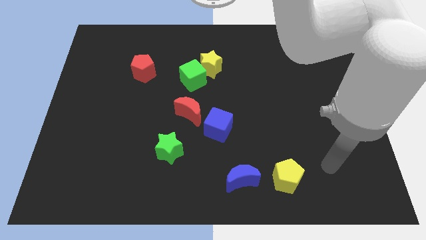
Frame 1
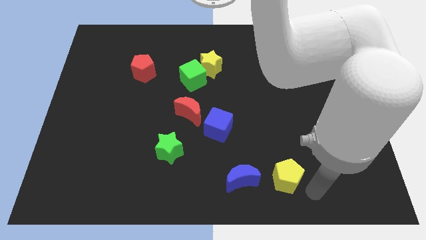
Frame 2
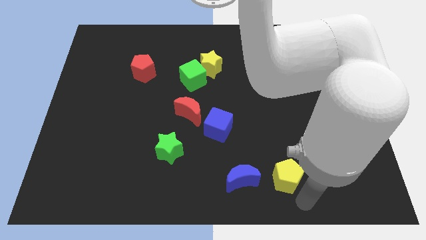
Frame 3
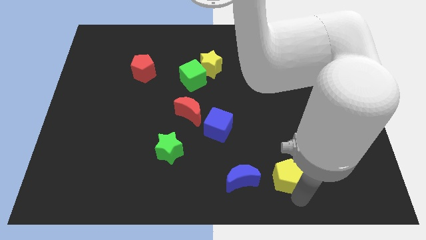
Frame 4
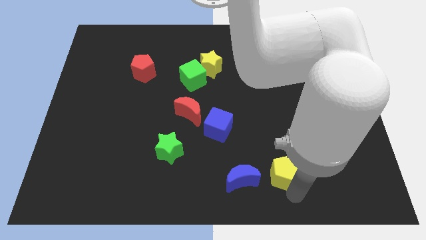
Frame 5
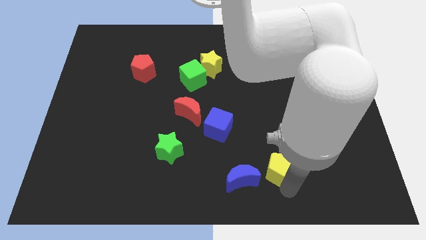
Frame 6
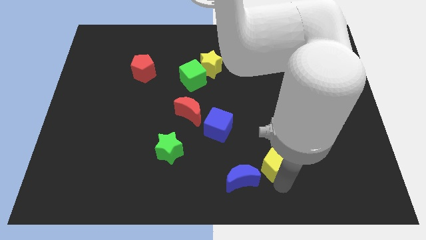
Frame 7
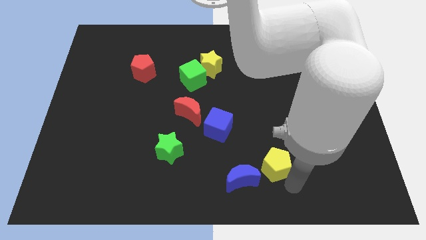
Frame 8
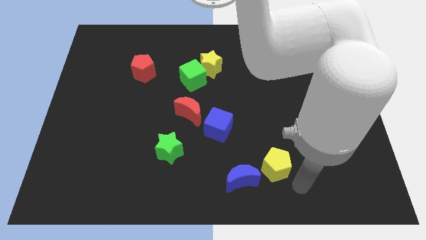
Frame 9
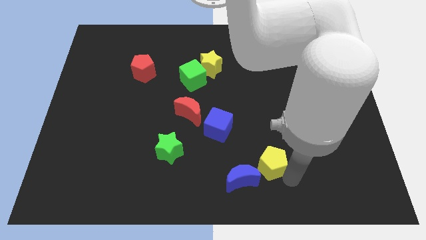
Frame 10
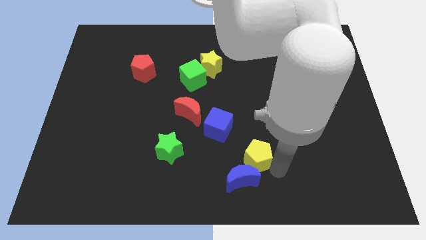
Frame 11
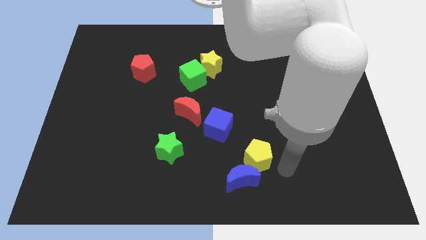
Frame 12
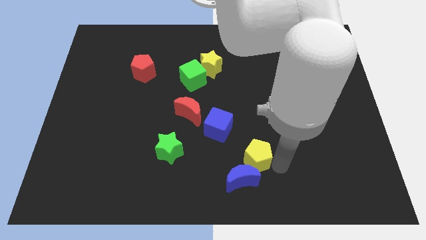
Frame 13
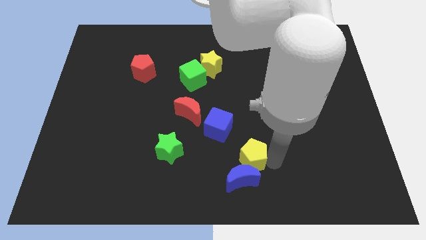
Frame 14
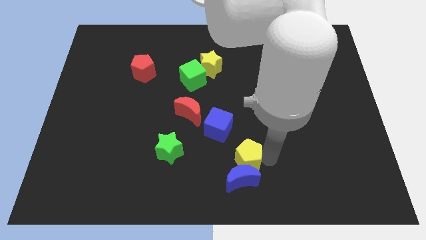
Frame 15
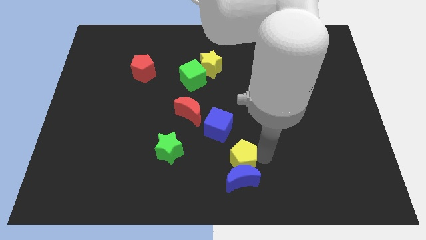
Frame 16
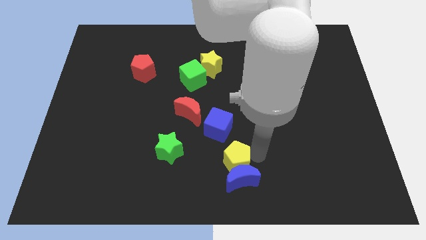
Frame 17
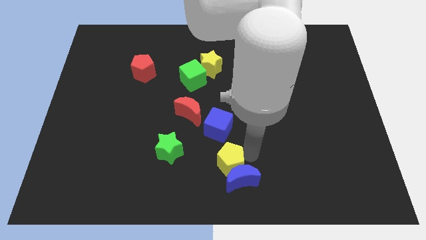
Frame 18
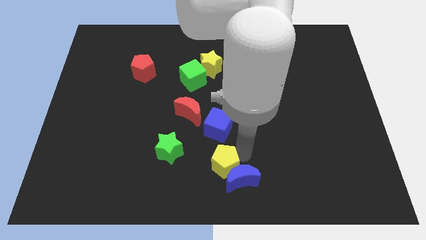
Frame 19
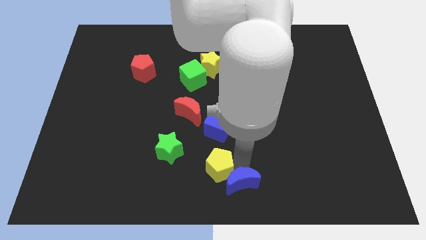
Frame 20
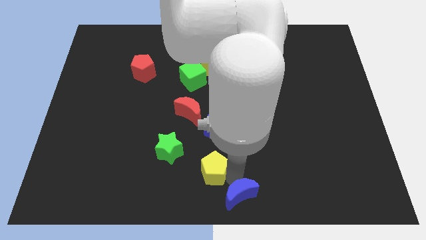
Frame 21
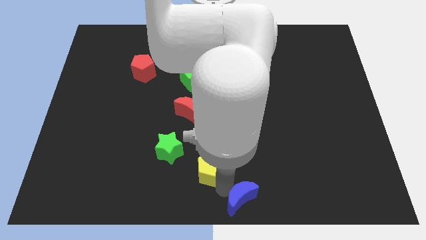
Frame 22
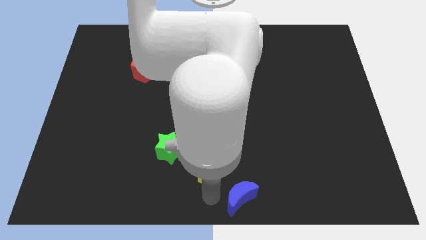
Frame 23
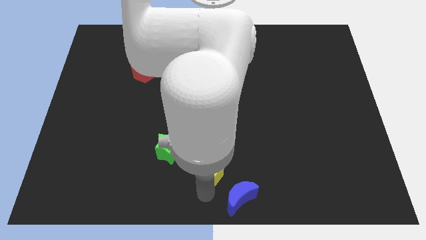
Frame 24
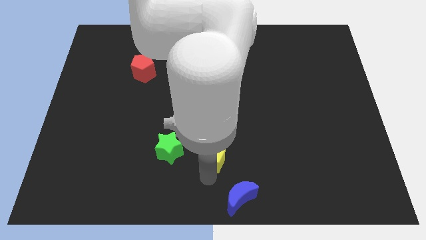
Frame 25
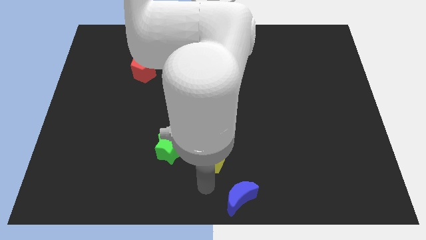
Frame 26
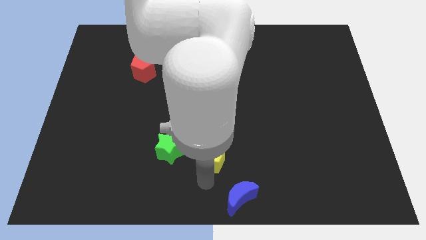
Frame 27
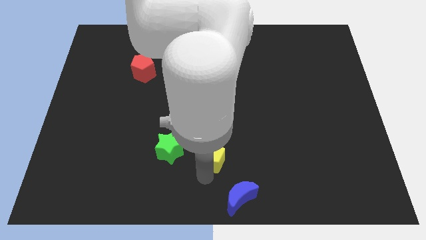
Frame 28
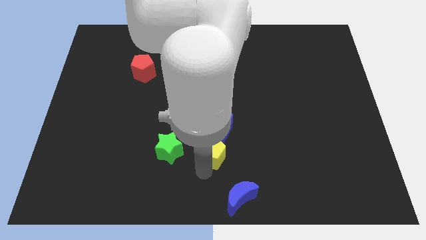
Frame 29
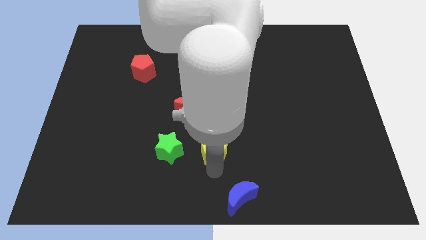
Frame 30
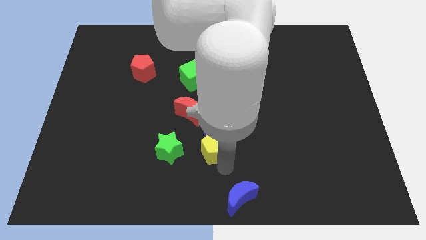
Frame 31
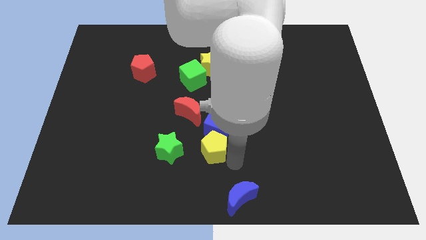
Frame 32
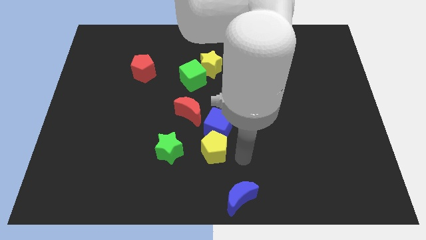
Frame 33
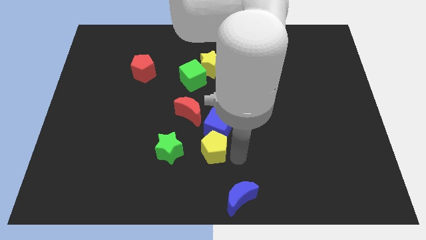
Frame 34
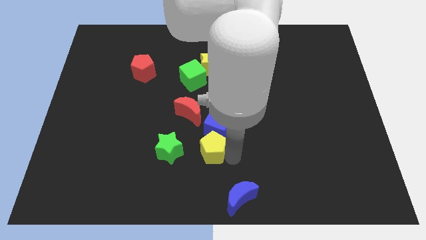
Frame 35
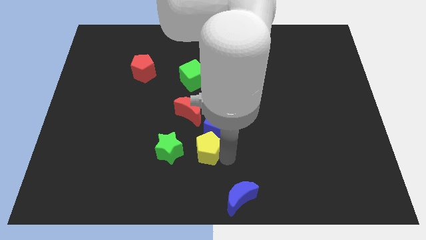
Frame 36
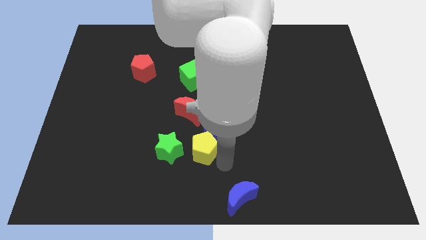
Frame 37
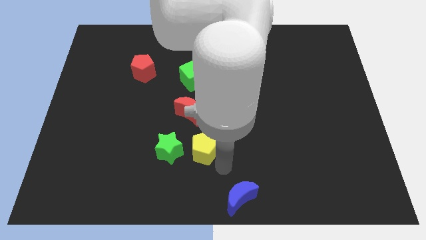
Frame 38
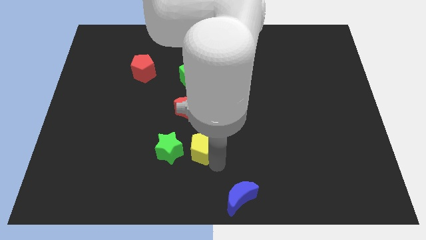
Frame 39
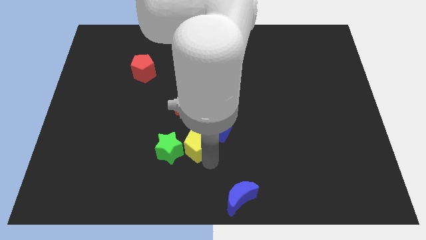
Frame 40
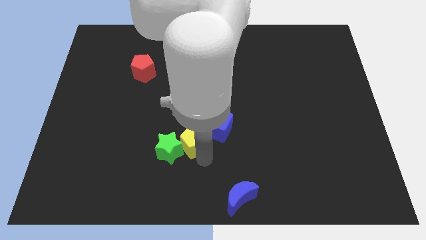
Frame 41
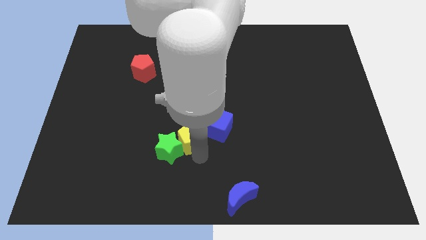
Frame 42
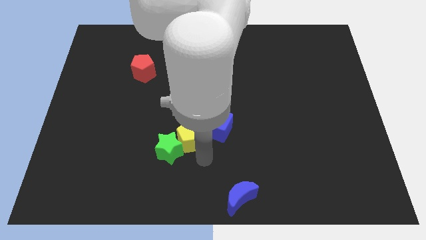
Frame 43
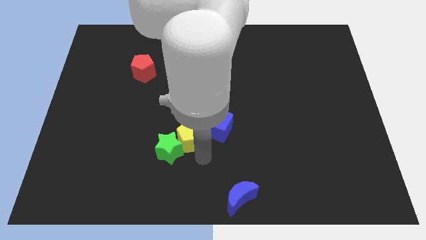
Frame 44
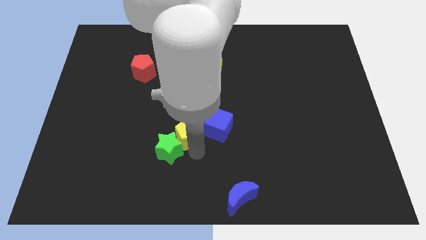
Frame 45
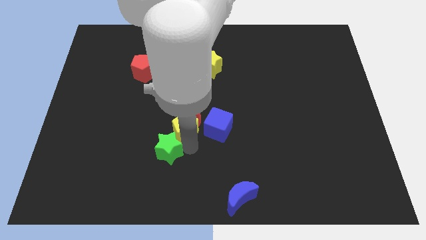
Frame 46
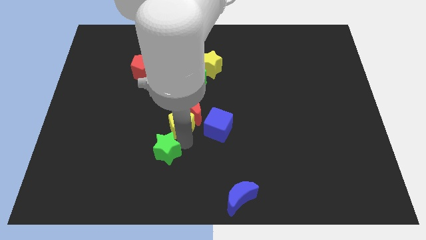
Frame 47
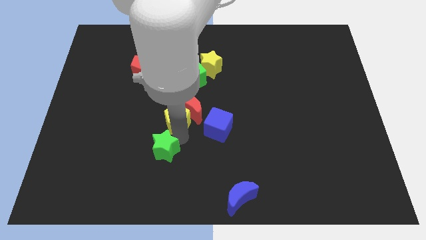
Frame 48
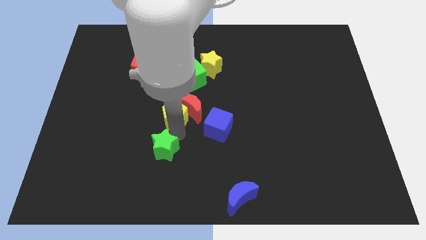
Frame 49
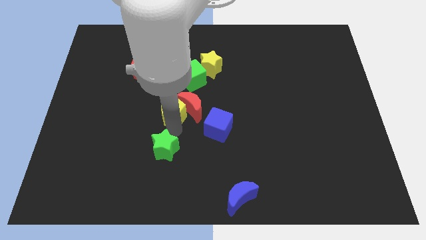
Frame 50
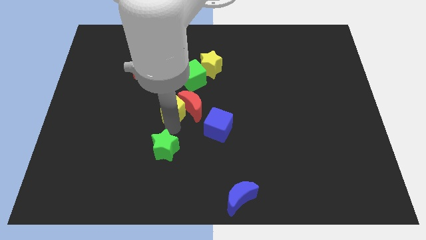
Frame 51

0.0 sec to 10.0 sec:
push the yellow pentagon to the bottom left side of the green cube
